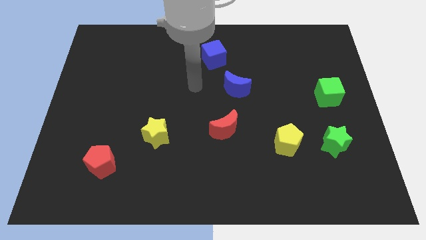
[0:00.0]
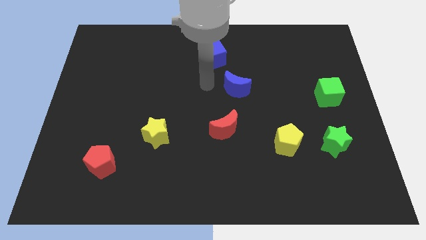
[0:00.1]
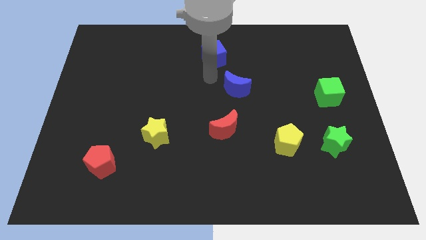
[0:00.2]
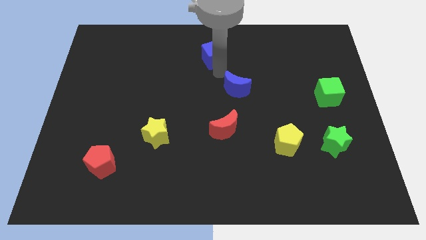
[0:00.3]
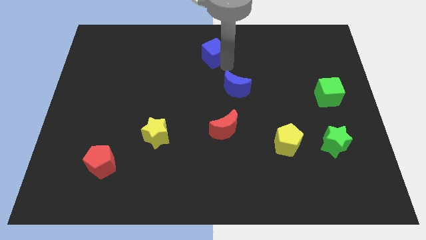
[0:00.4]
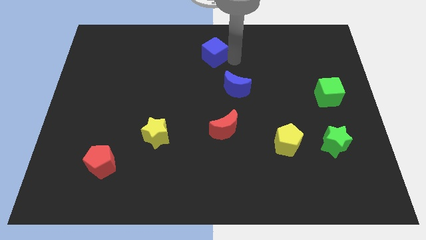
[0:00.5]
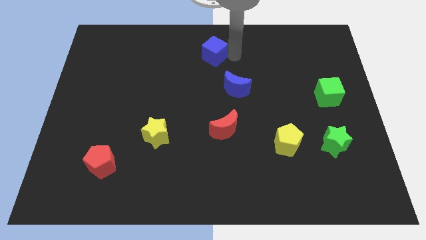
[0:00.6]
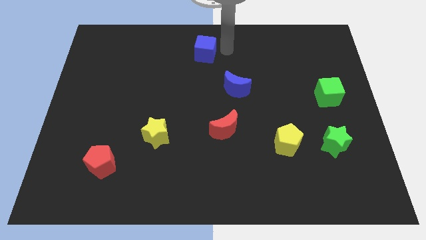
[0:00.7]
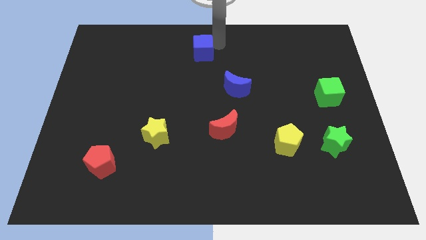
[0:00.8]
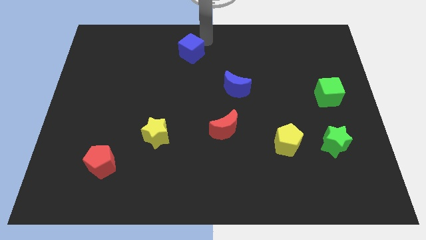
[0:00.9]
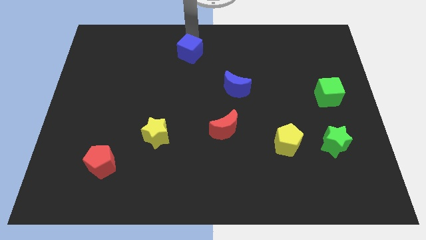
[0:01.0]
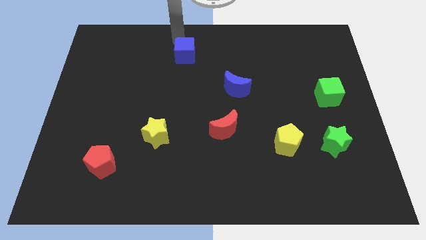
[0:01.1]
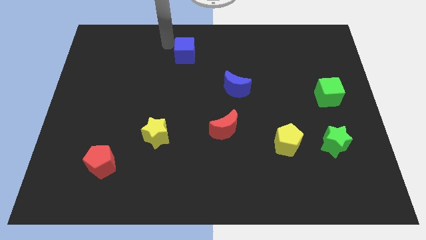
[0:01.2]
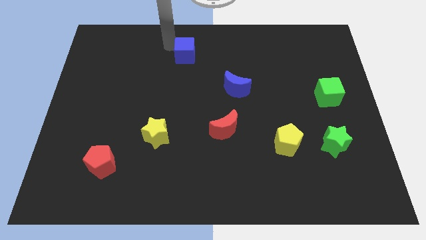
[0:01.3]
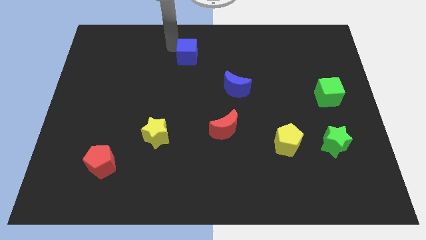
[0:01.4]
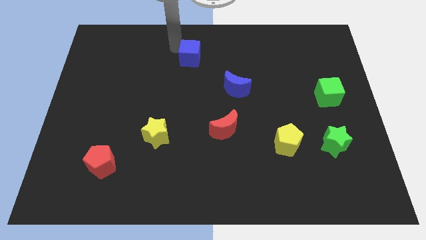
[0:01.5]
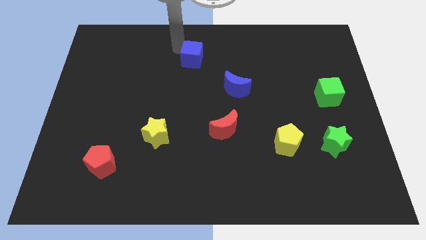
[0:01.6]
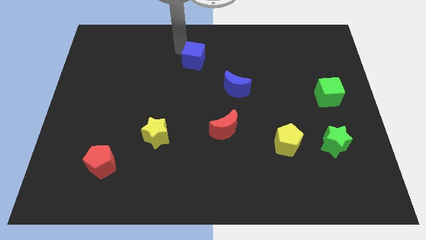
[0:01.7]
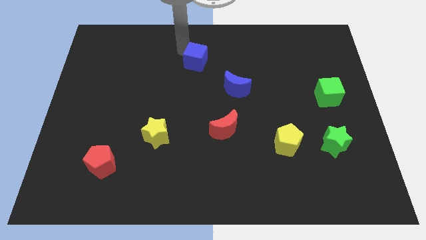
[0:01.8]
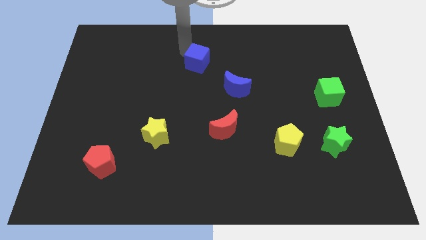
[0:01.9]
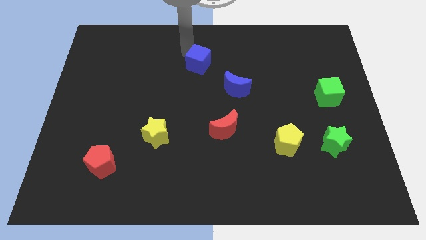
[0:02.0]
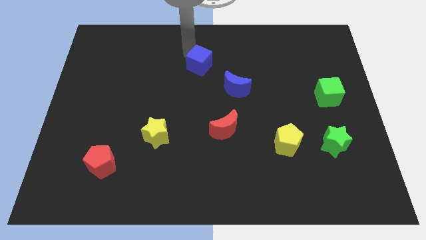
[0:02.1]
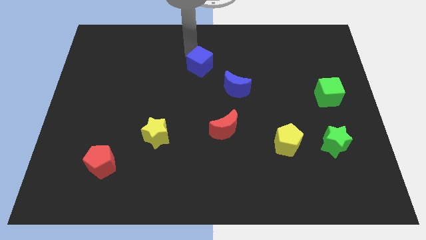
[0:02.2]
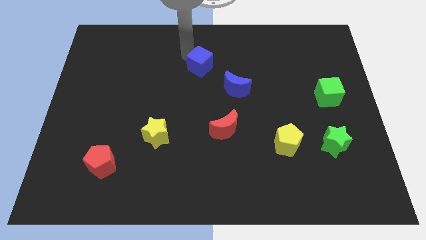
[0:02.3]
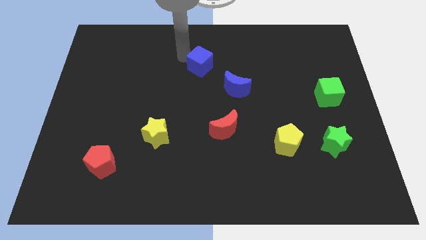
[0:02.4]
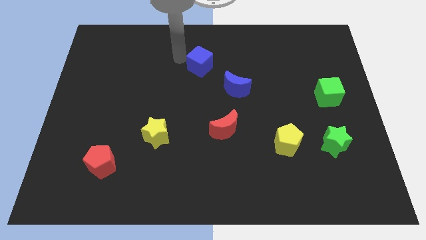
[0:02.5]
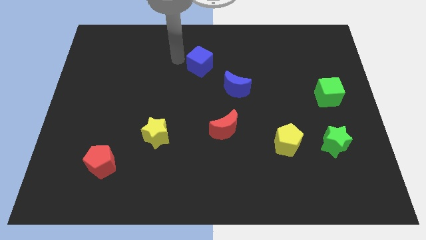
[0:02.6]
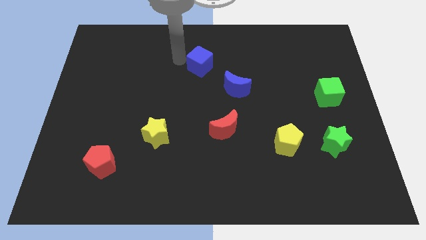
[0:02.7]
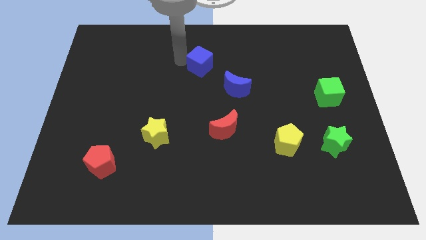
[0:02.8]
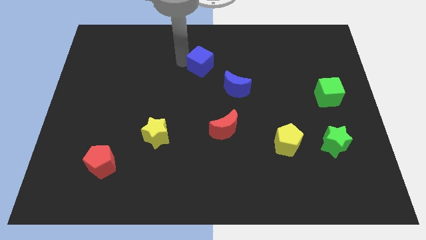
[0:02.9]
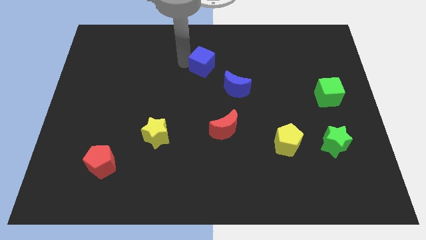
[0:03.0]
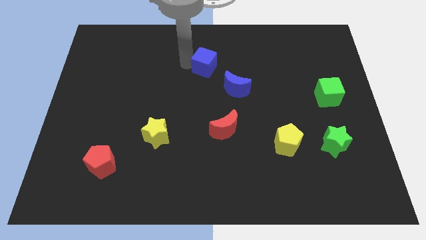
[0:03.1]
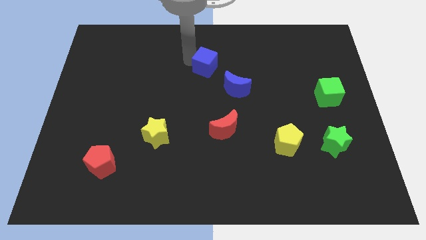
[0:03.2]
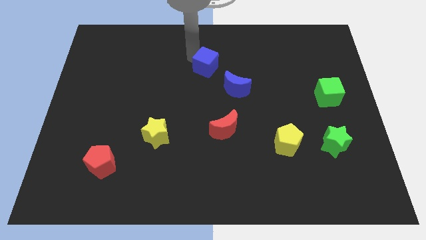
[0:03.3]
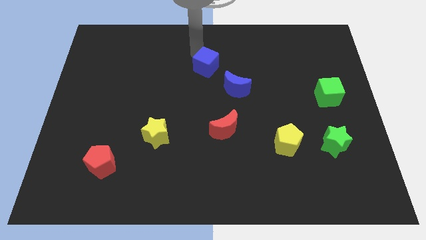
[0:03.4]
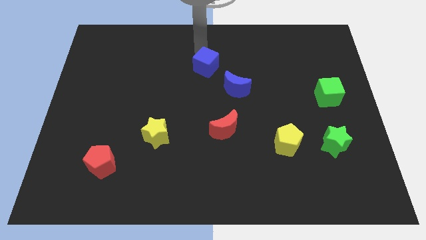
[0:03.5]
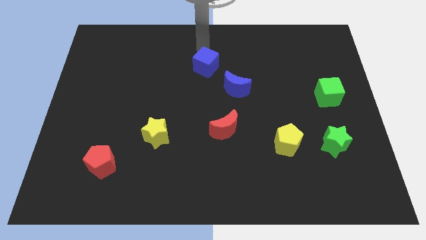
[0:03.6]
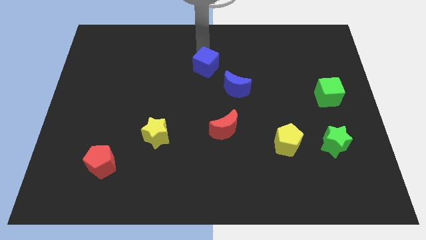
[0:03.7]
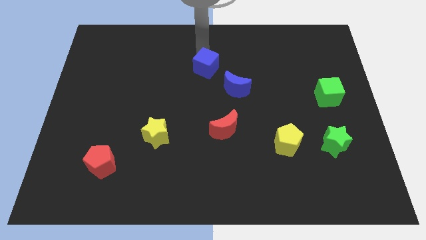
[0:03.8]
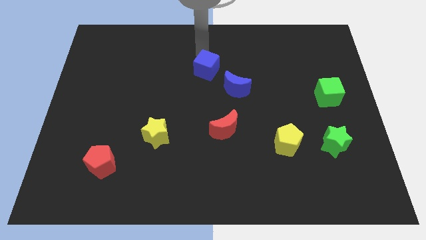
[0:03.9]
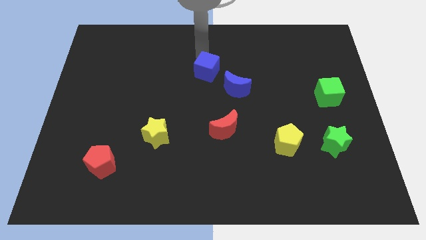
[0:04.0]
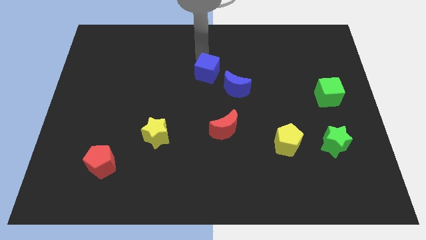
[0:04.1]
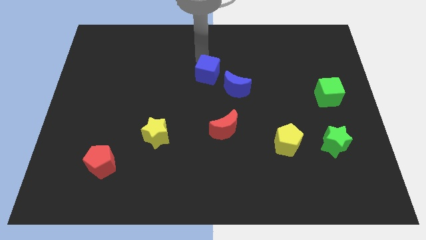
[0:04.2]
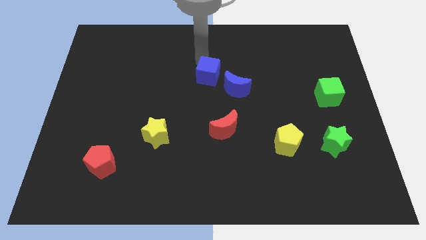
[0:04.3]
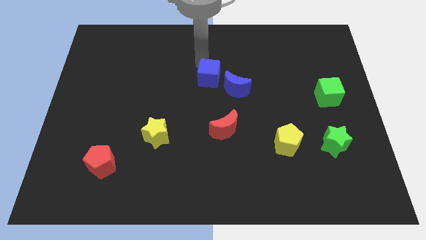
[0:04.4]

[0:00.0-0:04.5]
move the blue cube a little down

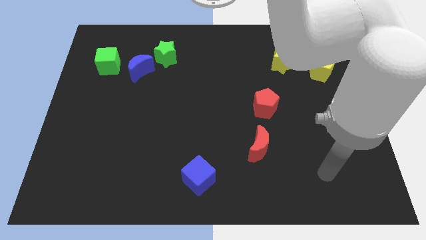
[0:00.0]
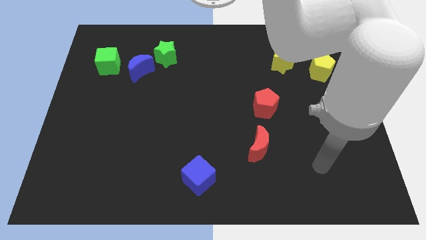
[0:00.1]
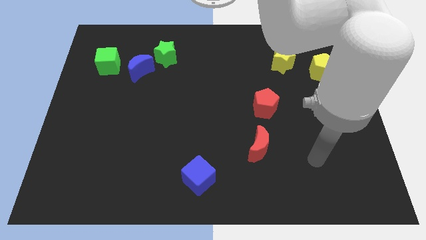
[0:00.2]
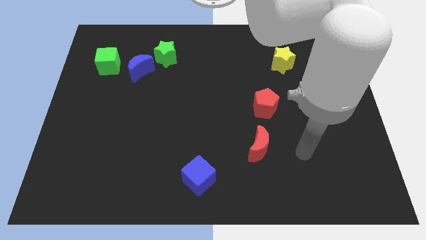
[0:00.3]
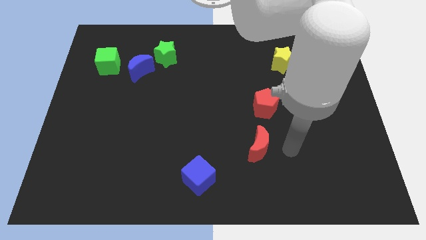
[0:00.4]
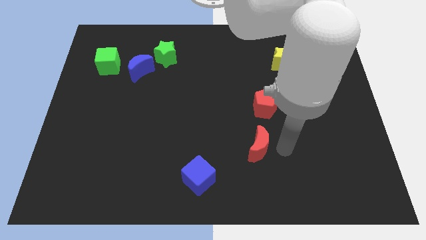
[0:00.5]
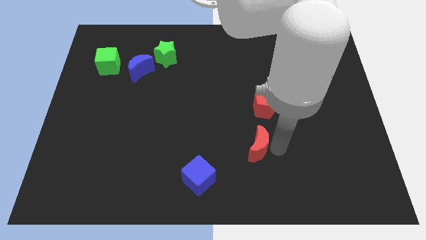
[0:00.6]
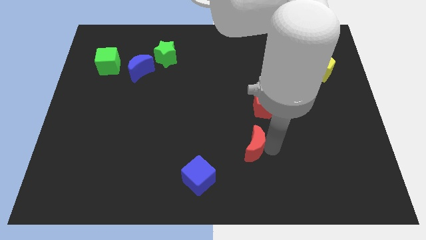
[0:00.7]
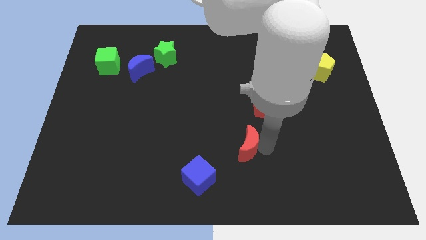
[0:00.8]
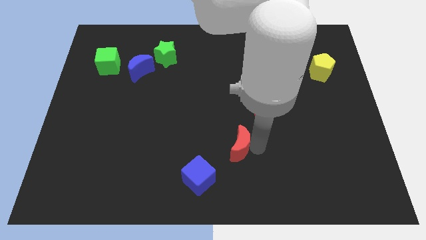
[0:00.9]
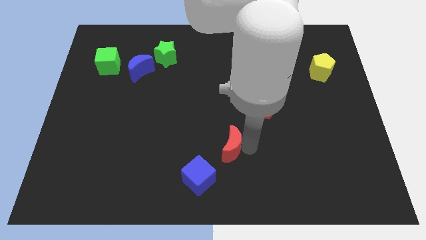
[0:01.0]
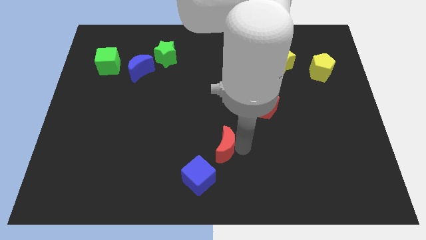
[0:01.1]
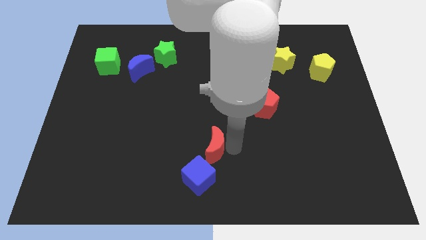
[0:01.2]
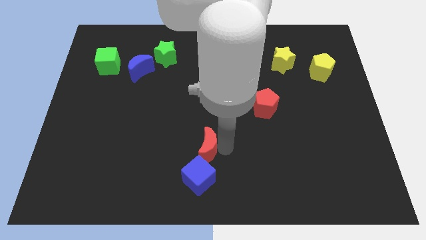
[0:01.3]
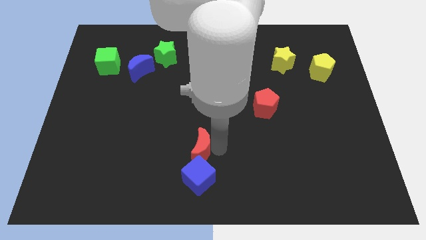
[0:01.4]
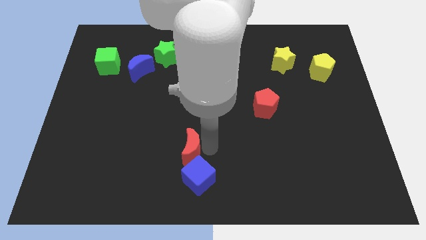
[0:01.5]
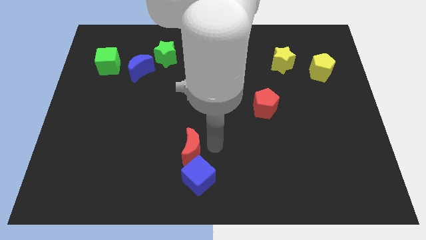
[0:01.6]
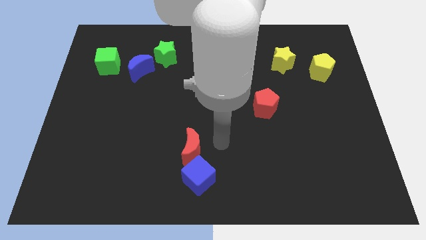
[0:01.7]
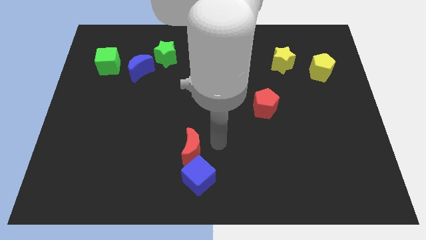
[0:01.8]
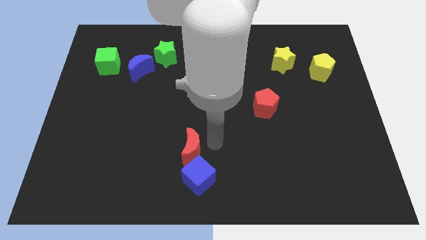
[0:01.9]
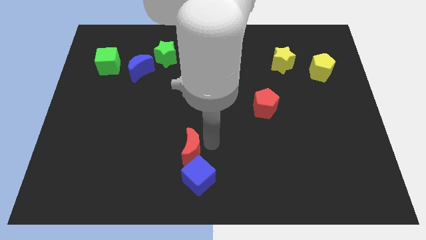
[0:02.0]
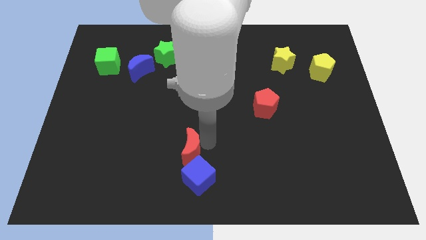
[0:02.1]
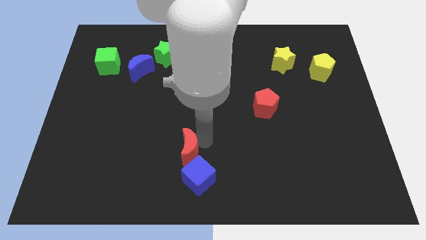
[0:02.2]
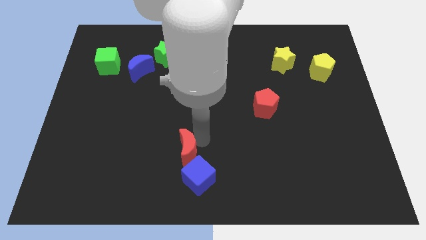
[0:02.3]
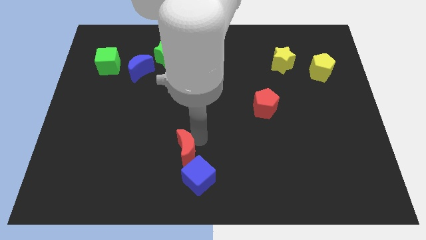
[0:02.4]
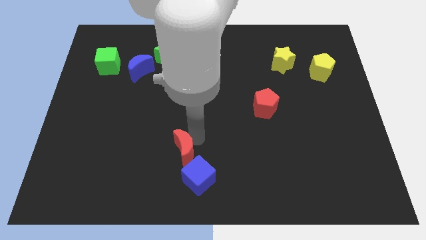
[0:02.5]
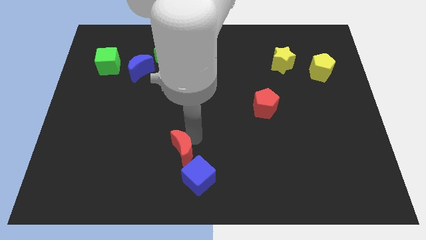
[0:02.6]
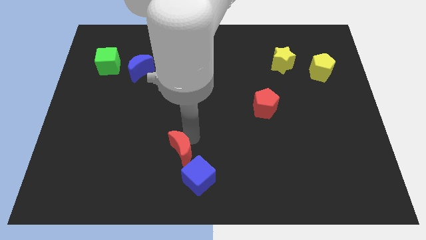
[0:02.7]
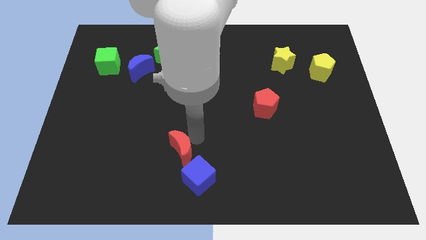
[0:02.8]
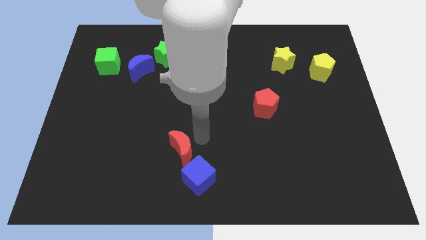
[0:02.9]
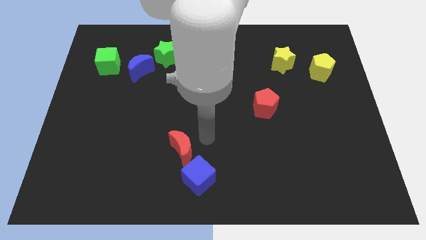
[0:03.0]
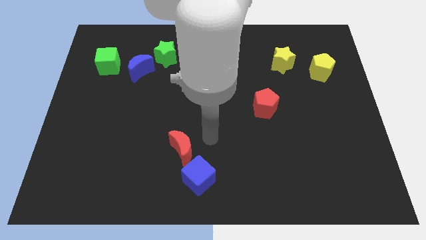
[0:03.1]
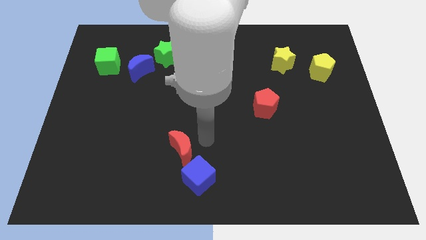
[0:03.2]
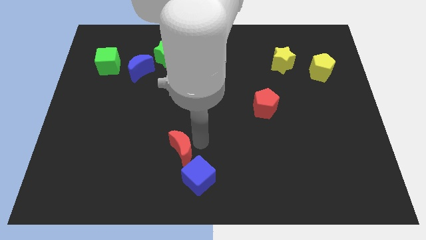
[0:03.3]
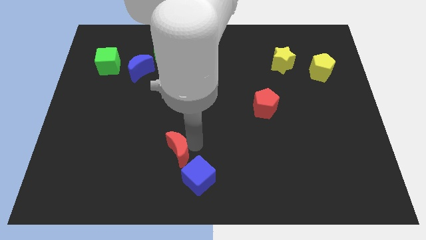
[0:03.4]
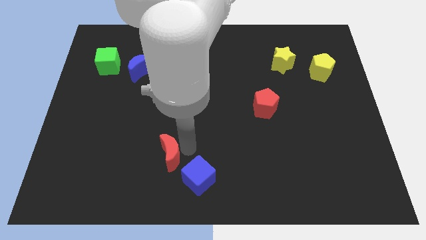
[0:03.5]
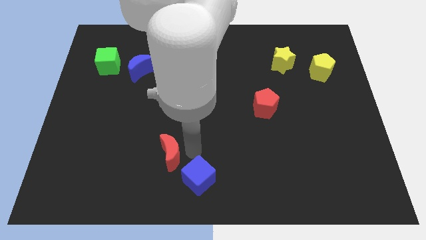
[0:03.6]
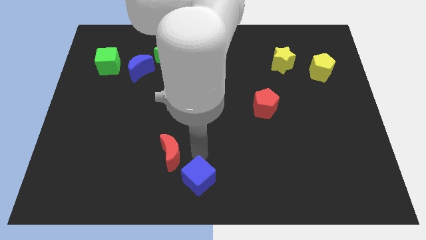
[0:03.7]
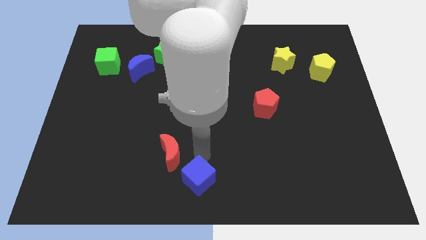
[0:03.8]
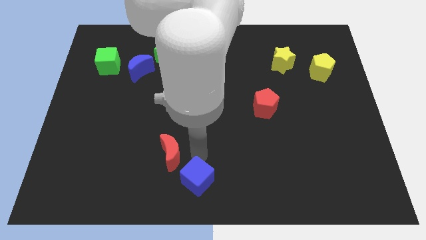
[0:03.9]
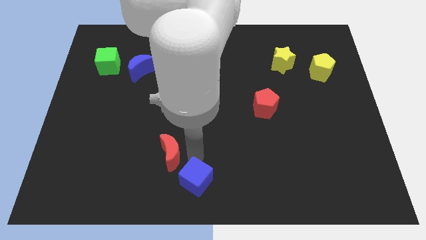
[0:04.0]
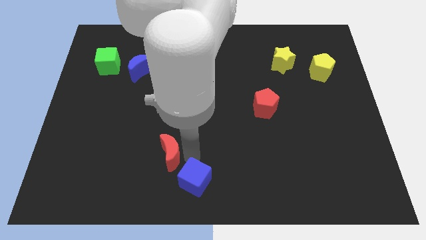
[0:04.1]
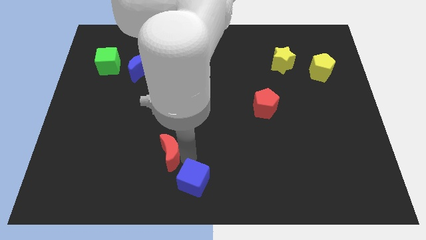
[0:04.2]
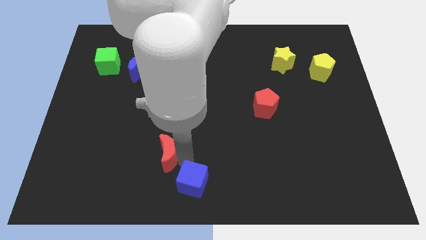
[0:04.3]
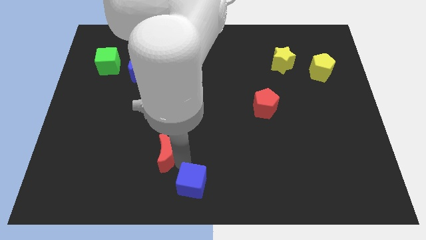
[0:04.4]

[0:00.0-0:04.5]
slide the red moon to the left
